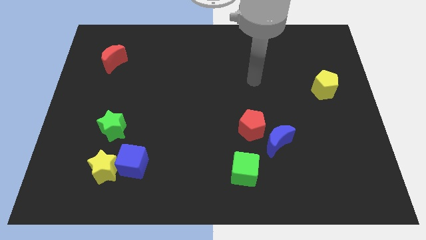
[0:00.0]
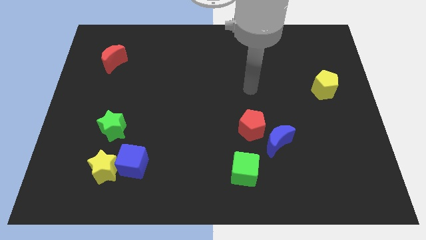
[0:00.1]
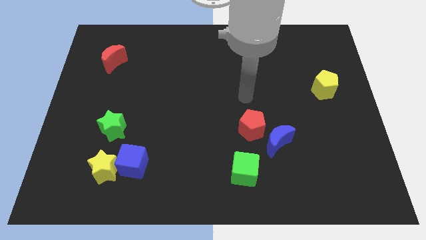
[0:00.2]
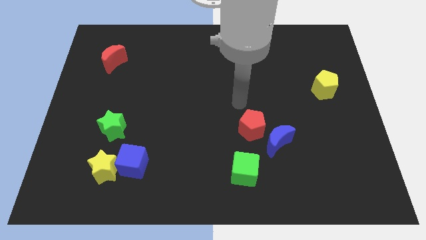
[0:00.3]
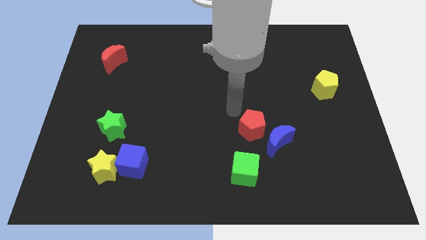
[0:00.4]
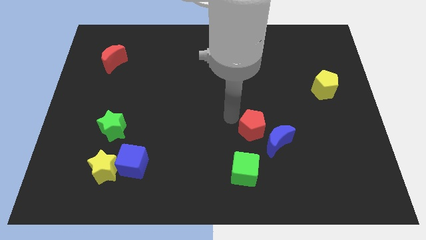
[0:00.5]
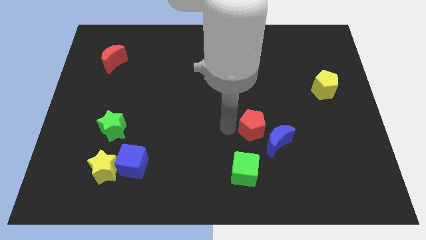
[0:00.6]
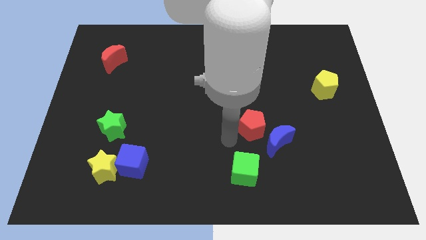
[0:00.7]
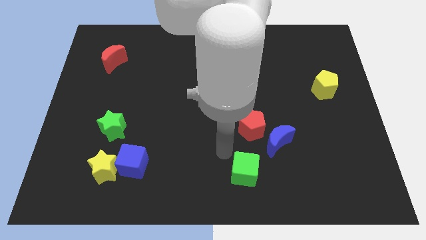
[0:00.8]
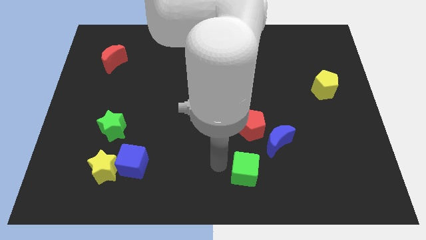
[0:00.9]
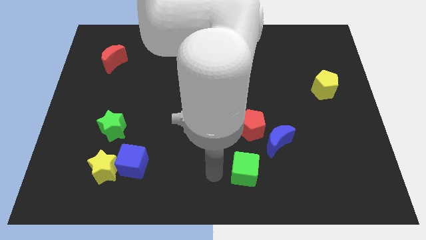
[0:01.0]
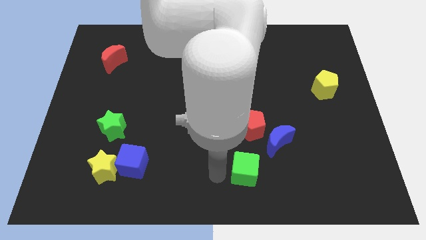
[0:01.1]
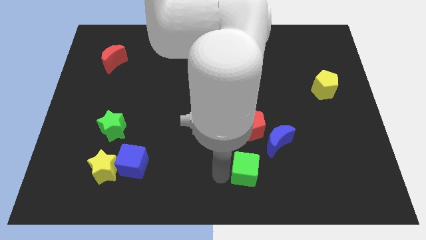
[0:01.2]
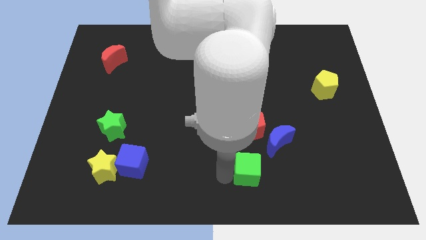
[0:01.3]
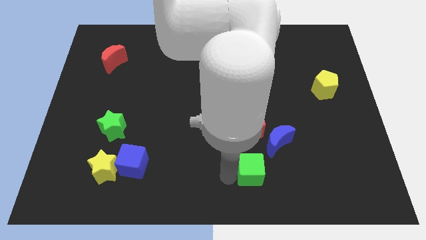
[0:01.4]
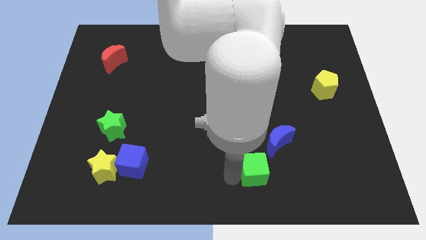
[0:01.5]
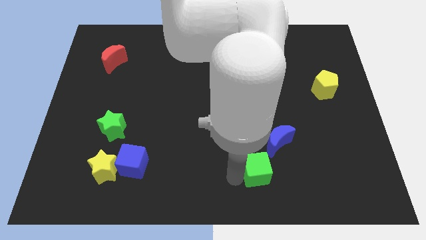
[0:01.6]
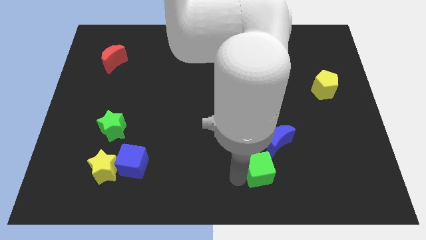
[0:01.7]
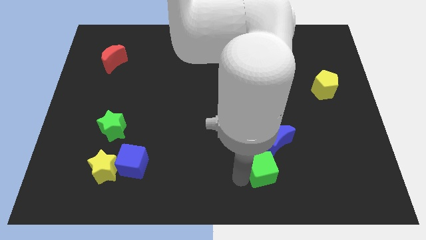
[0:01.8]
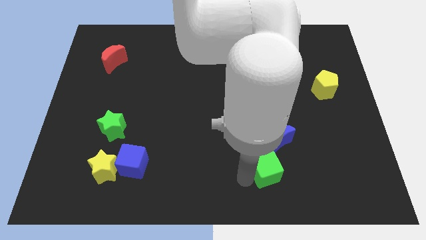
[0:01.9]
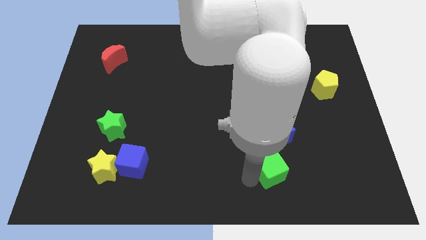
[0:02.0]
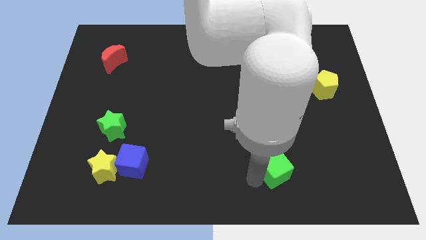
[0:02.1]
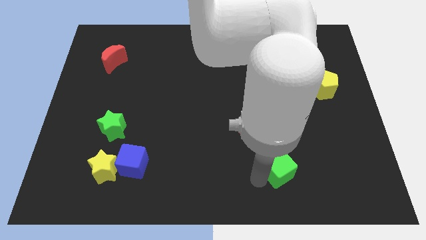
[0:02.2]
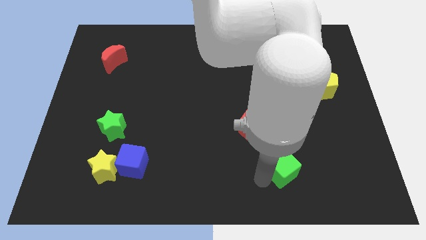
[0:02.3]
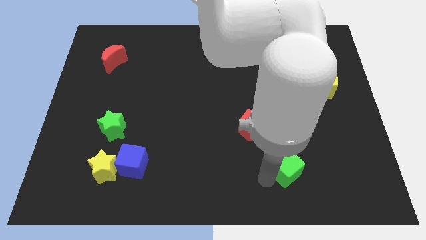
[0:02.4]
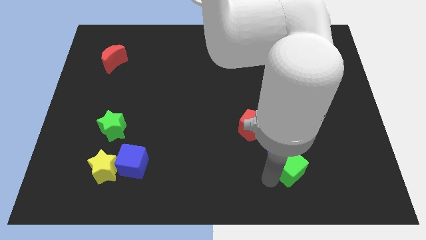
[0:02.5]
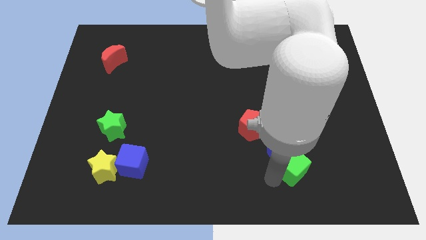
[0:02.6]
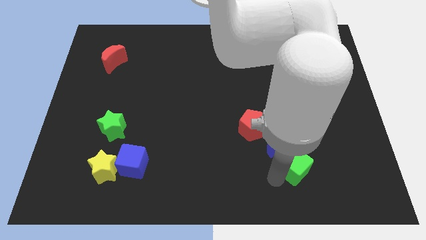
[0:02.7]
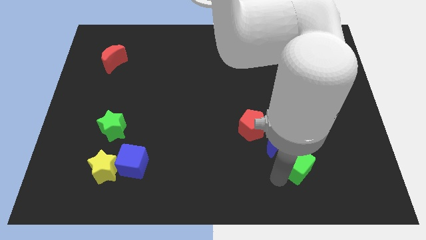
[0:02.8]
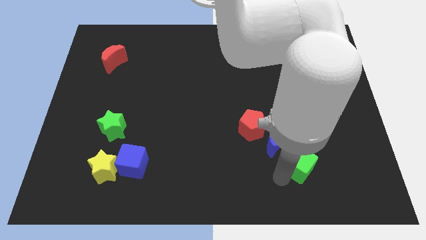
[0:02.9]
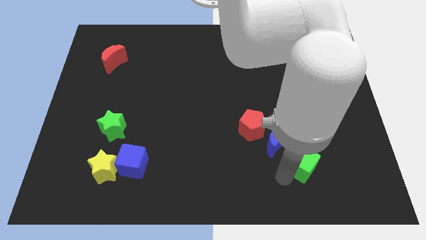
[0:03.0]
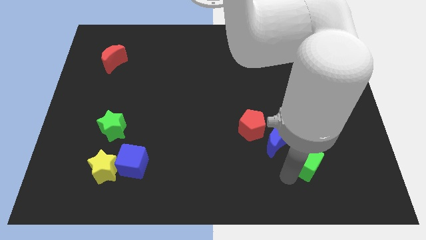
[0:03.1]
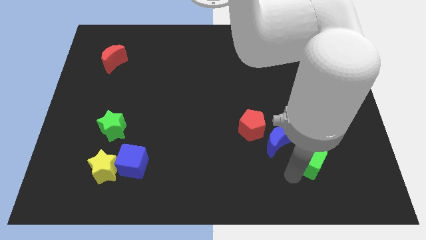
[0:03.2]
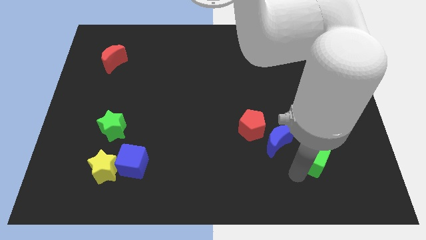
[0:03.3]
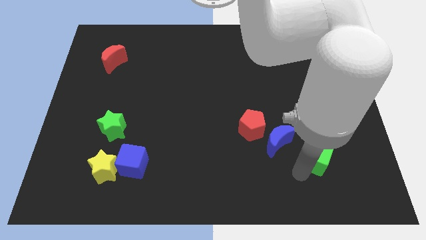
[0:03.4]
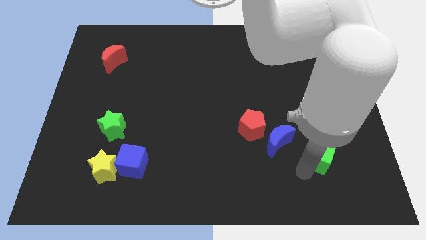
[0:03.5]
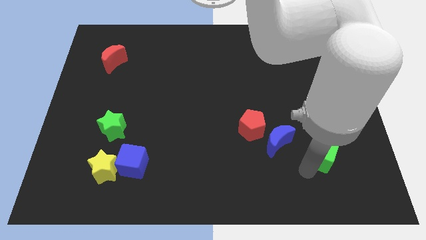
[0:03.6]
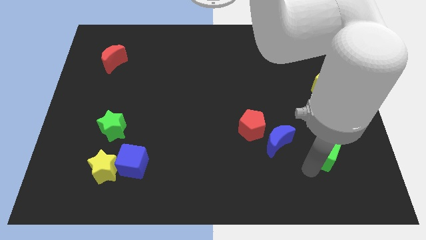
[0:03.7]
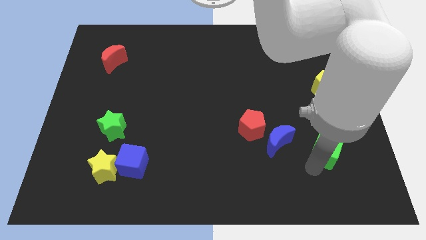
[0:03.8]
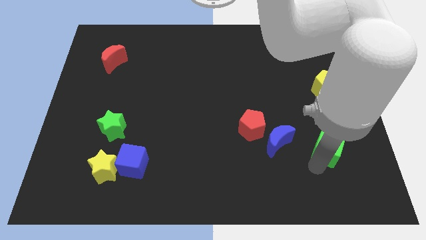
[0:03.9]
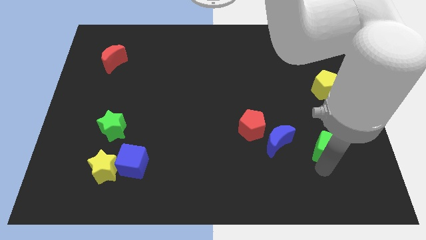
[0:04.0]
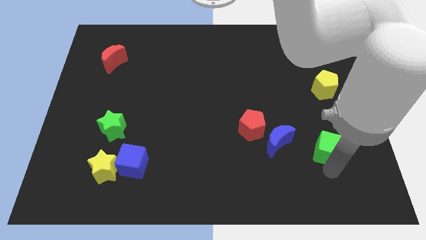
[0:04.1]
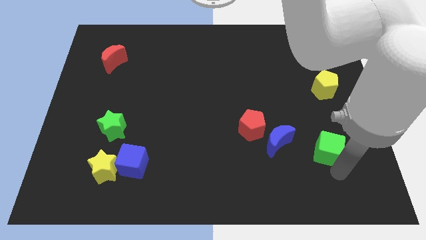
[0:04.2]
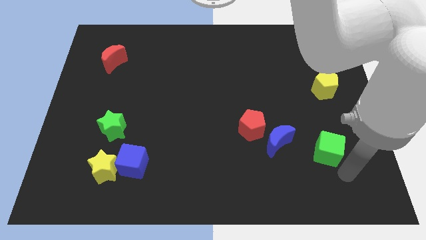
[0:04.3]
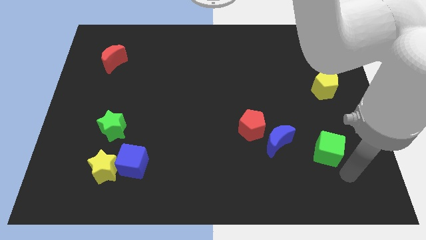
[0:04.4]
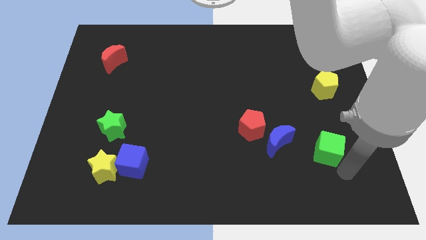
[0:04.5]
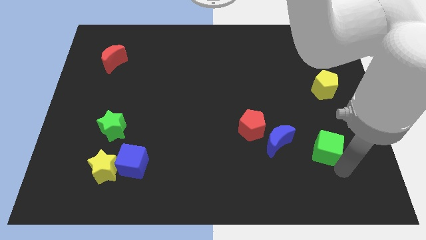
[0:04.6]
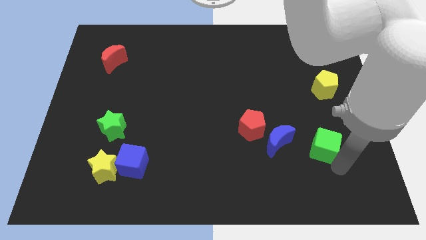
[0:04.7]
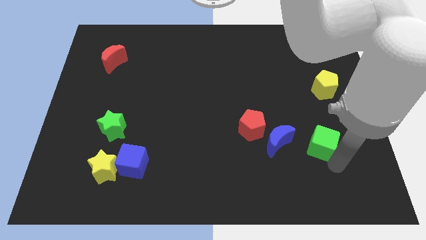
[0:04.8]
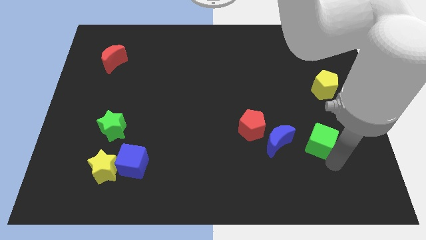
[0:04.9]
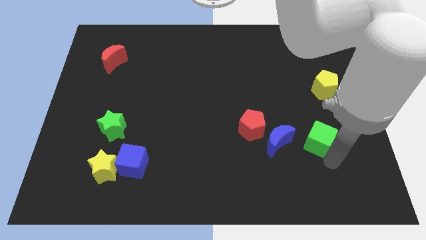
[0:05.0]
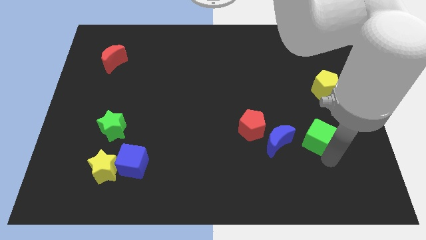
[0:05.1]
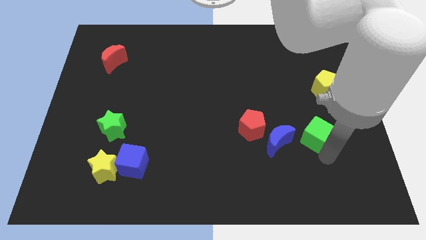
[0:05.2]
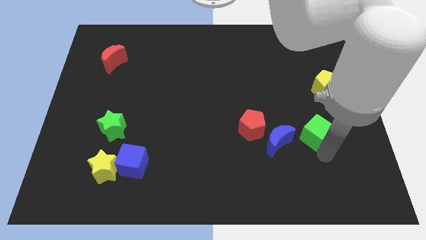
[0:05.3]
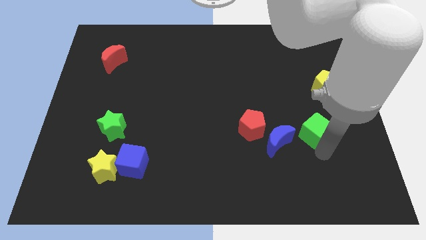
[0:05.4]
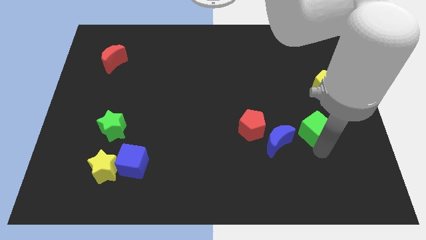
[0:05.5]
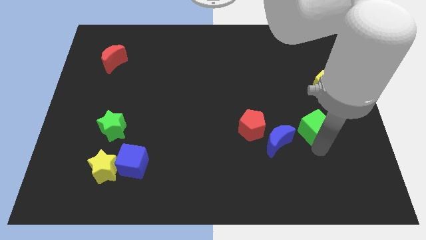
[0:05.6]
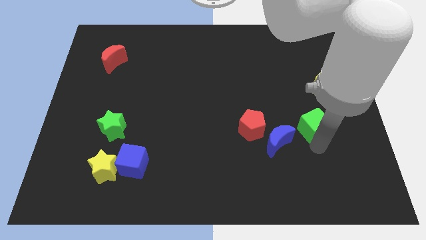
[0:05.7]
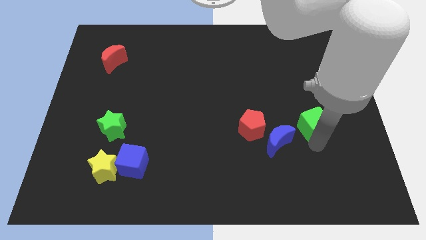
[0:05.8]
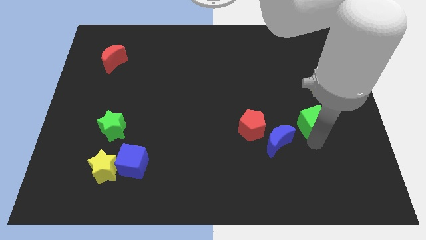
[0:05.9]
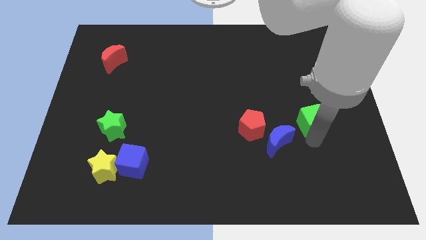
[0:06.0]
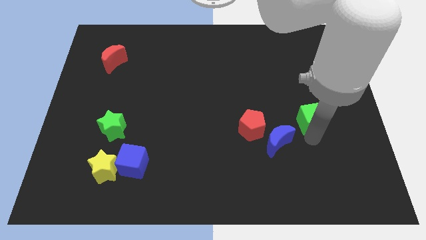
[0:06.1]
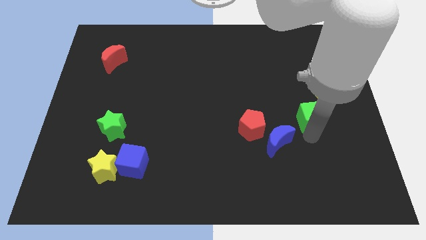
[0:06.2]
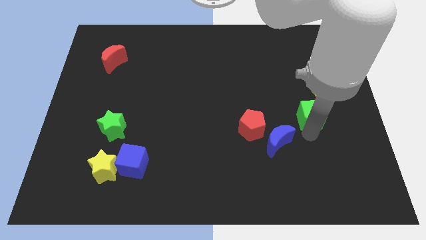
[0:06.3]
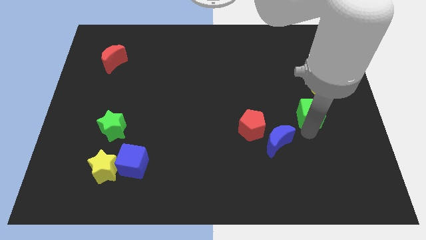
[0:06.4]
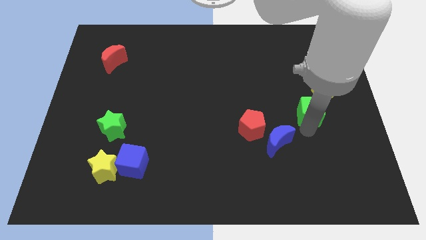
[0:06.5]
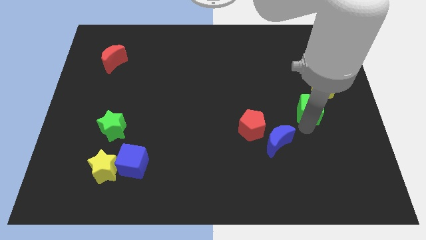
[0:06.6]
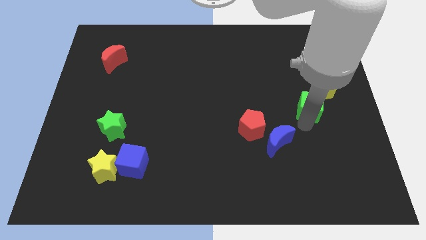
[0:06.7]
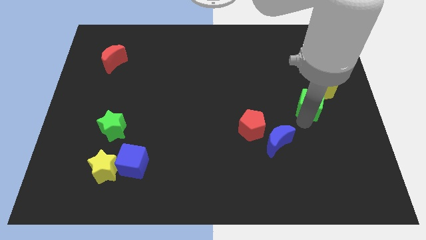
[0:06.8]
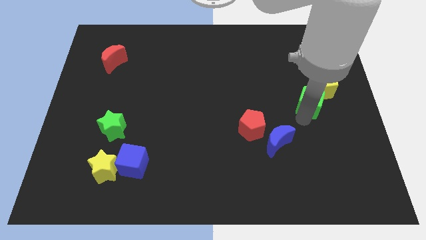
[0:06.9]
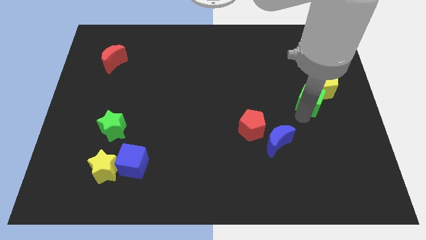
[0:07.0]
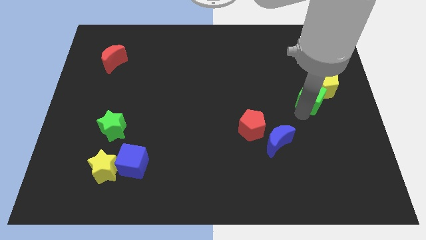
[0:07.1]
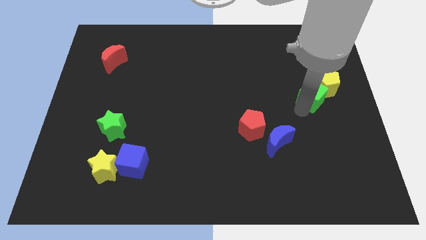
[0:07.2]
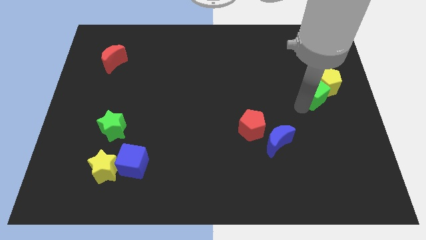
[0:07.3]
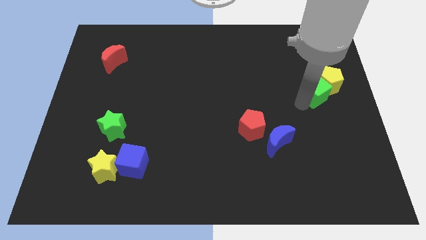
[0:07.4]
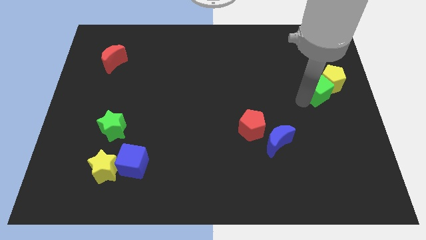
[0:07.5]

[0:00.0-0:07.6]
slide the green cube to the right side of the board
